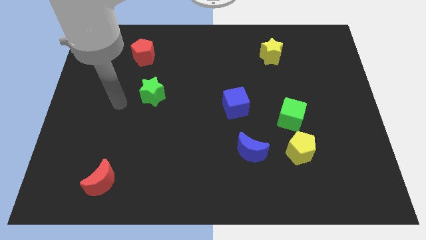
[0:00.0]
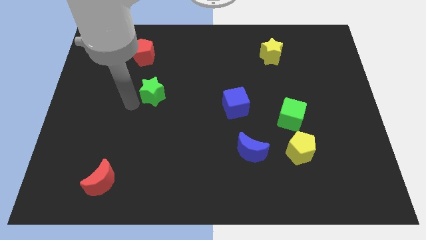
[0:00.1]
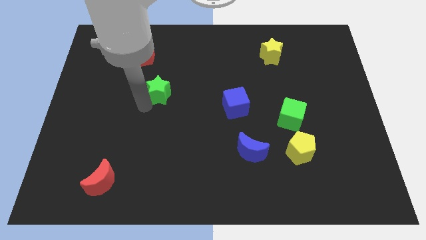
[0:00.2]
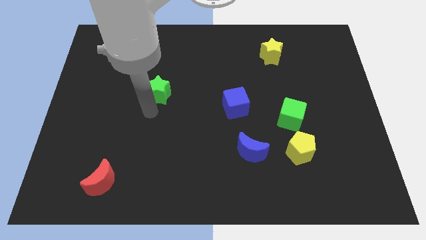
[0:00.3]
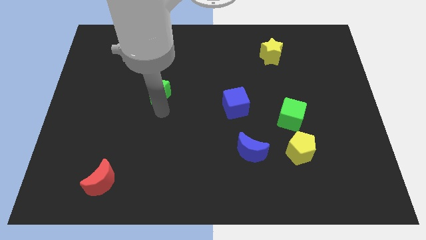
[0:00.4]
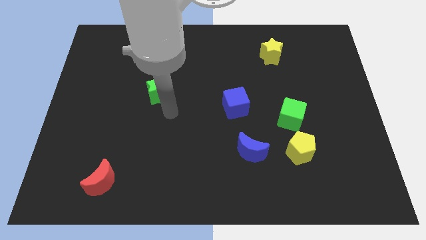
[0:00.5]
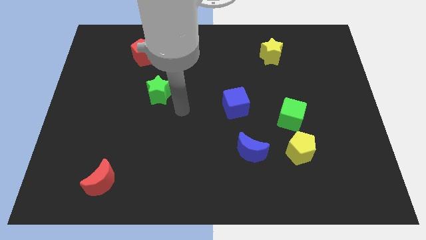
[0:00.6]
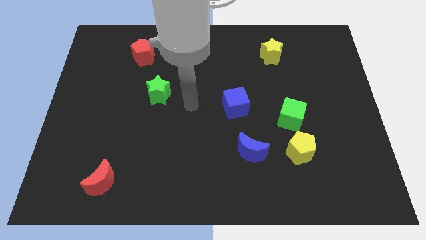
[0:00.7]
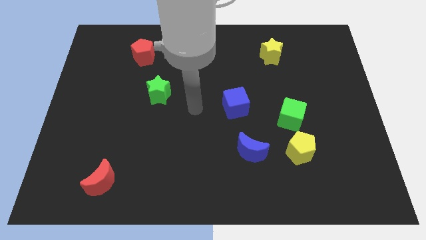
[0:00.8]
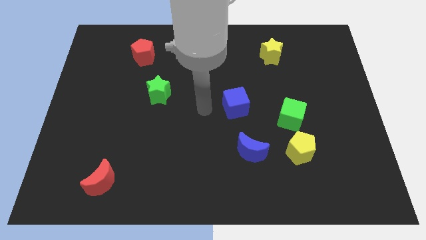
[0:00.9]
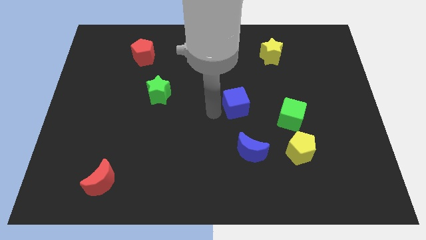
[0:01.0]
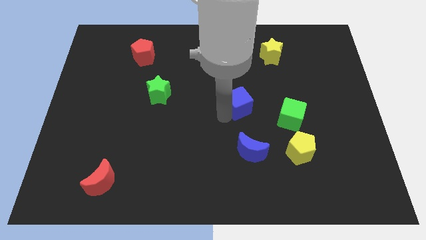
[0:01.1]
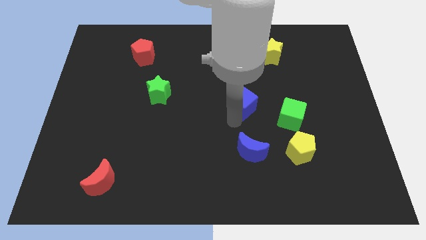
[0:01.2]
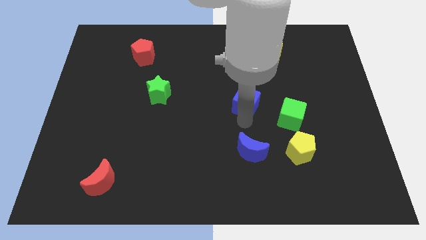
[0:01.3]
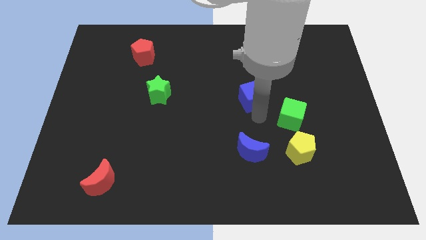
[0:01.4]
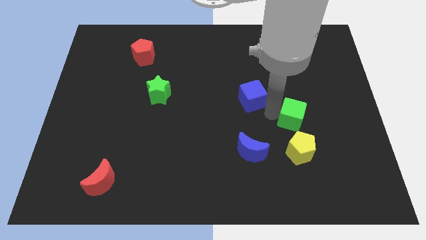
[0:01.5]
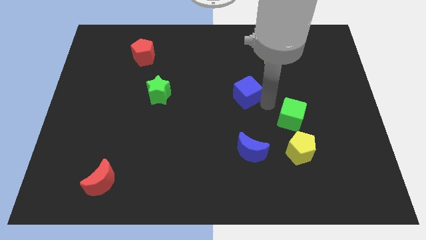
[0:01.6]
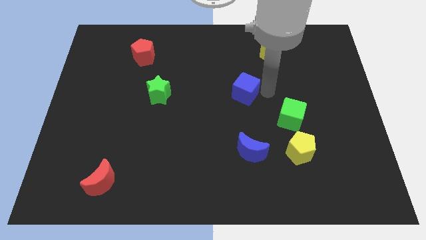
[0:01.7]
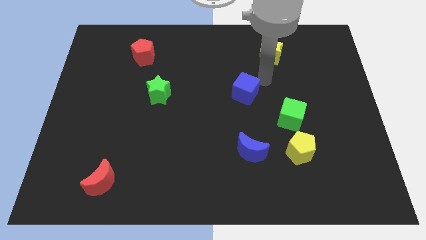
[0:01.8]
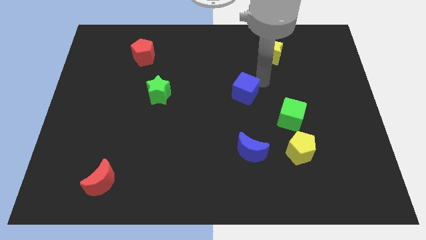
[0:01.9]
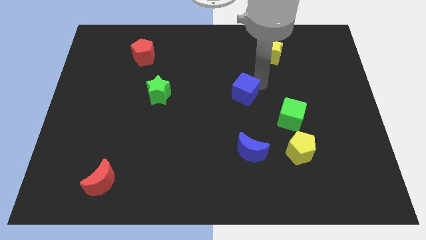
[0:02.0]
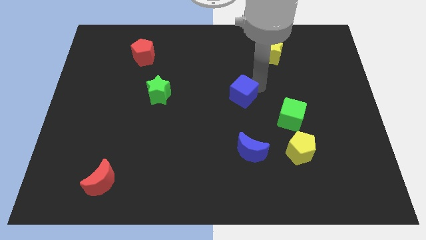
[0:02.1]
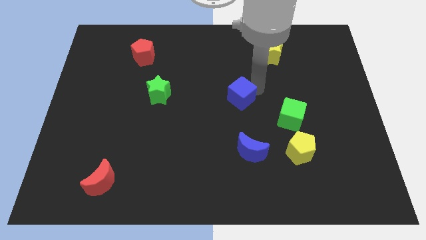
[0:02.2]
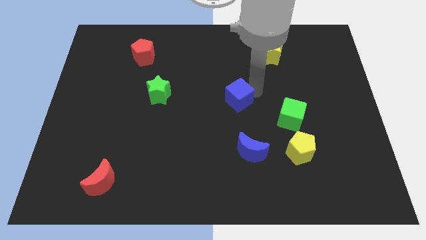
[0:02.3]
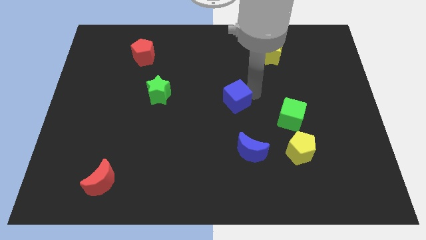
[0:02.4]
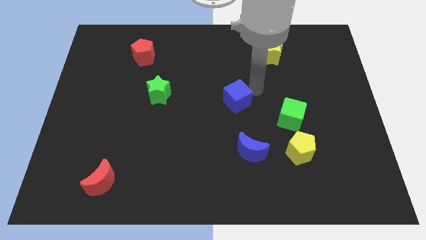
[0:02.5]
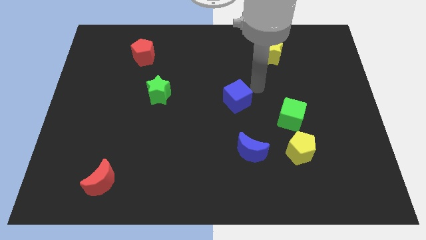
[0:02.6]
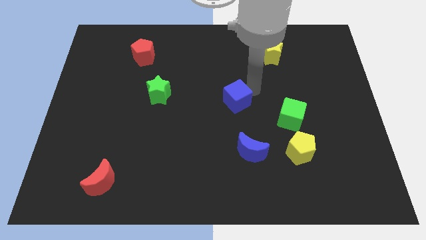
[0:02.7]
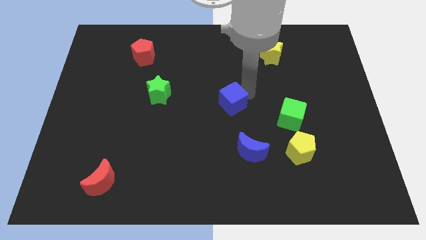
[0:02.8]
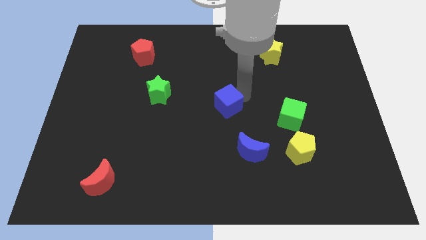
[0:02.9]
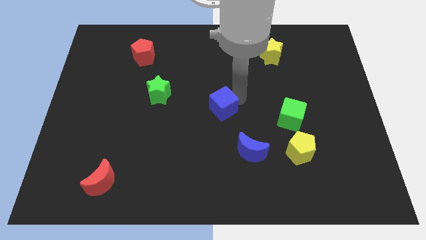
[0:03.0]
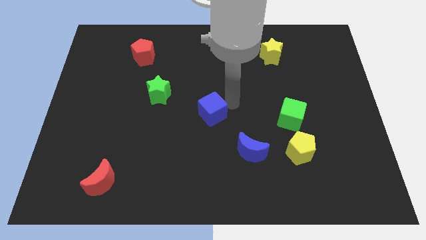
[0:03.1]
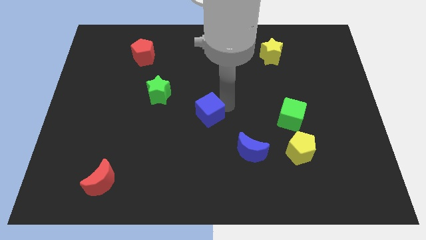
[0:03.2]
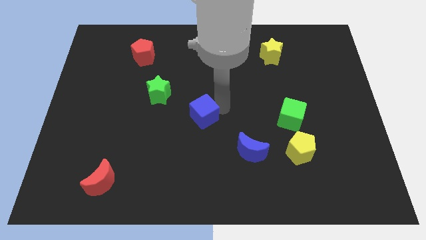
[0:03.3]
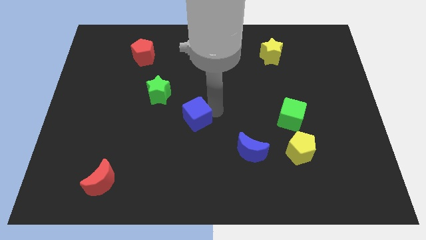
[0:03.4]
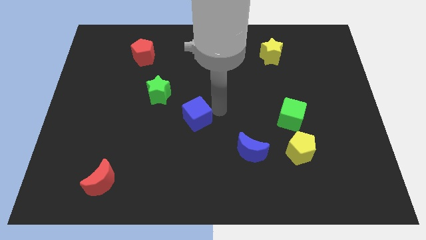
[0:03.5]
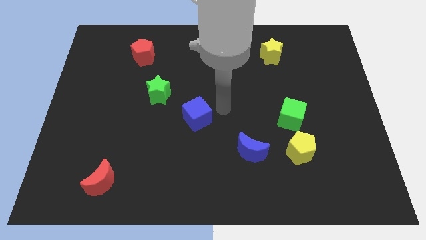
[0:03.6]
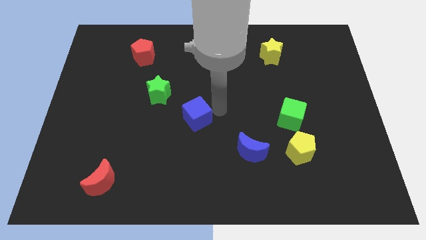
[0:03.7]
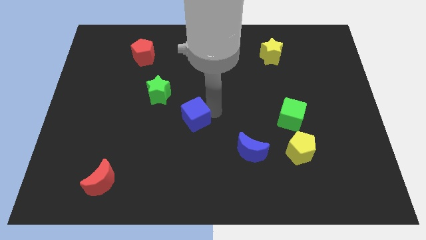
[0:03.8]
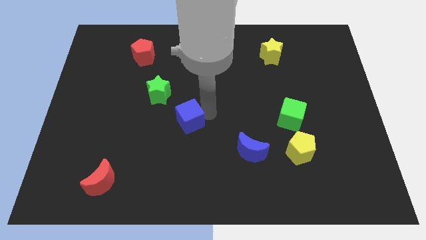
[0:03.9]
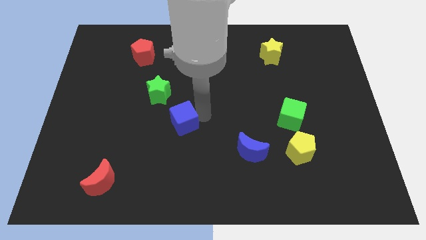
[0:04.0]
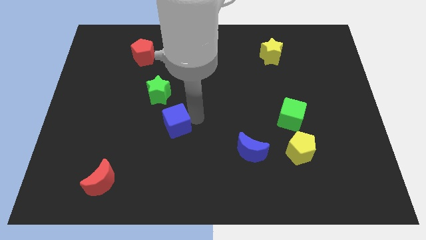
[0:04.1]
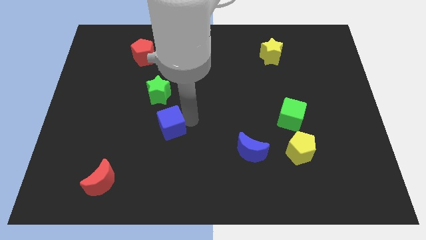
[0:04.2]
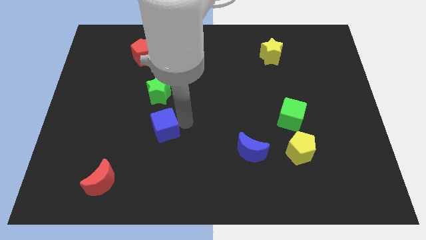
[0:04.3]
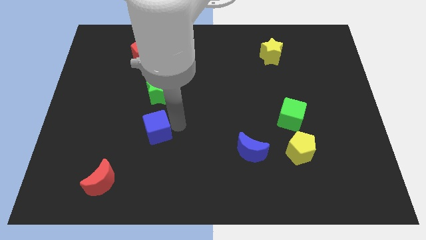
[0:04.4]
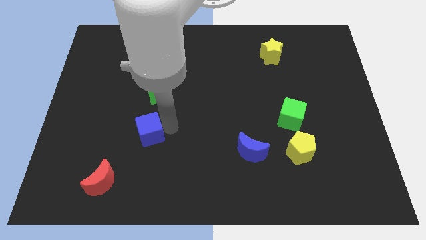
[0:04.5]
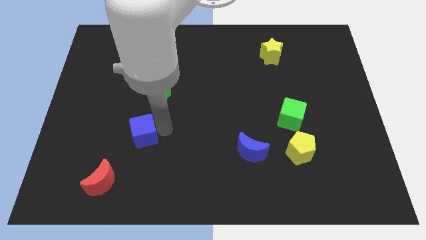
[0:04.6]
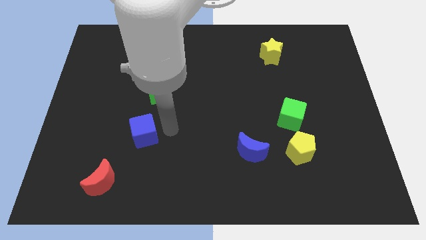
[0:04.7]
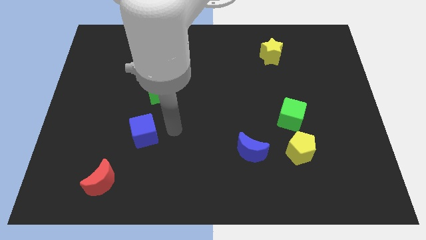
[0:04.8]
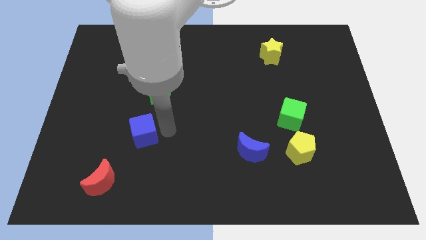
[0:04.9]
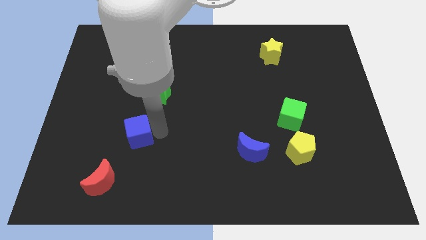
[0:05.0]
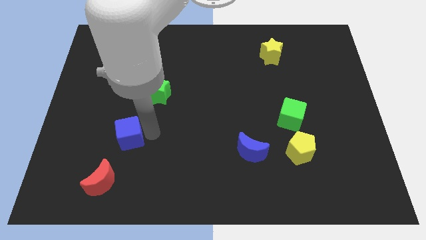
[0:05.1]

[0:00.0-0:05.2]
push the blue cube to the top side of the red moon

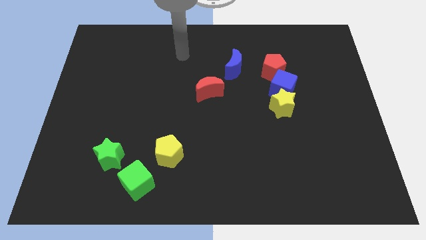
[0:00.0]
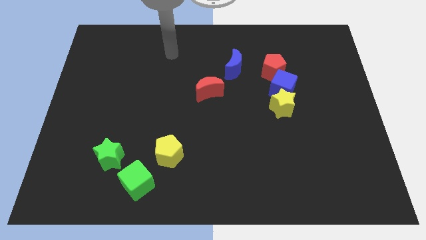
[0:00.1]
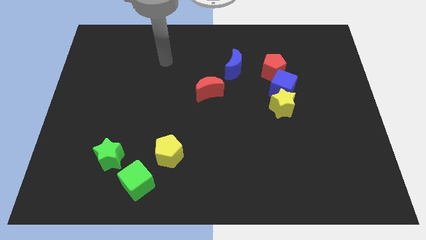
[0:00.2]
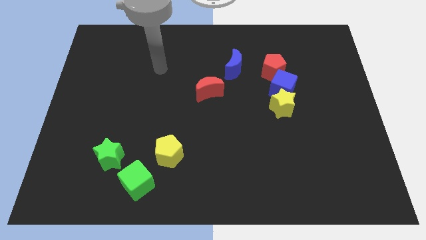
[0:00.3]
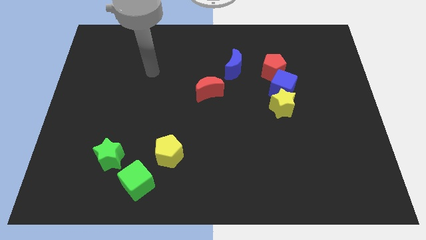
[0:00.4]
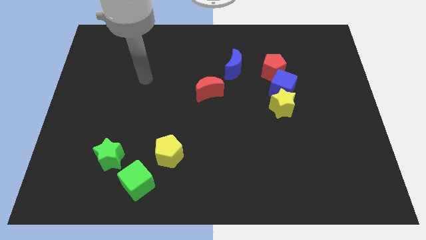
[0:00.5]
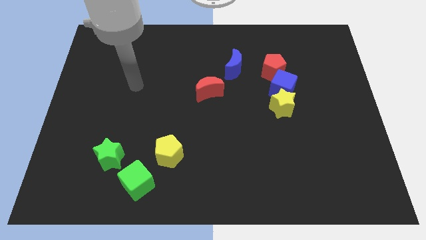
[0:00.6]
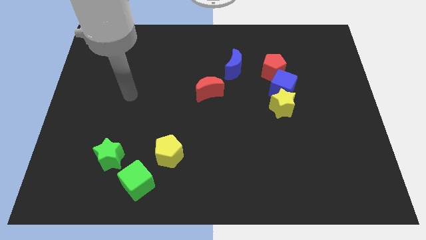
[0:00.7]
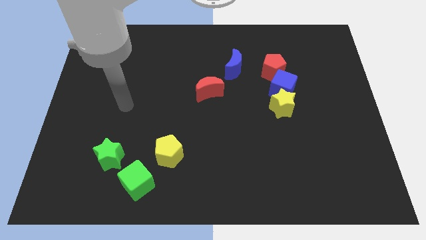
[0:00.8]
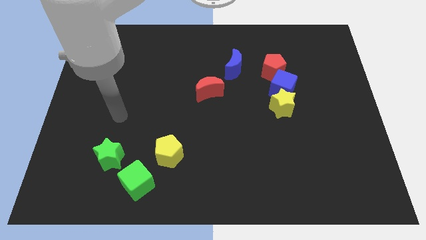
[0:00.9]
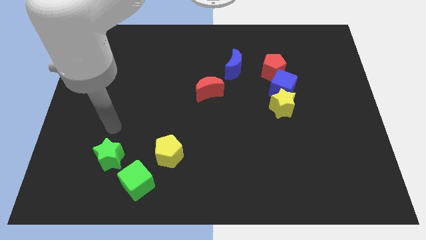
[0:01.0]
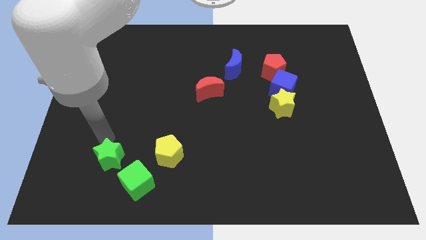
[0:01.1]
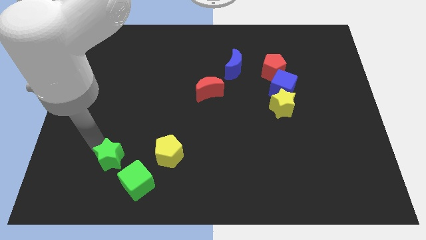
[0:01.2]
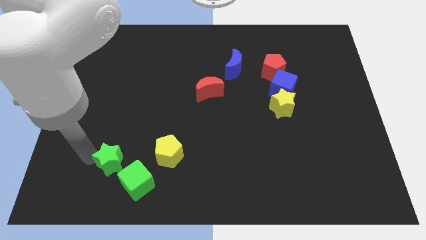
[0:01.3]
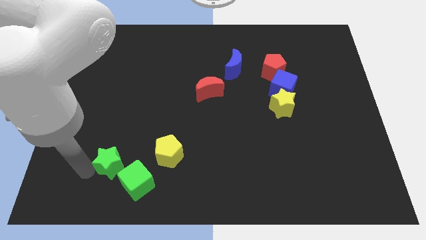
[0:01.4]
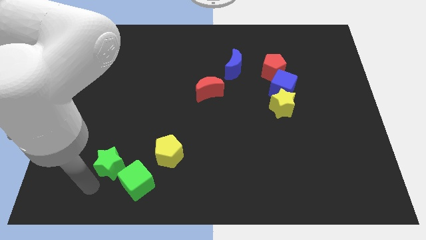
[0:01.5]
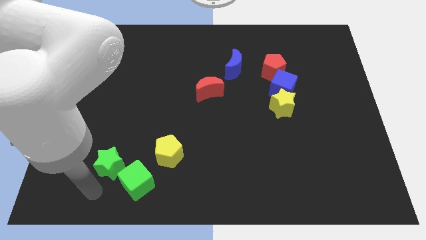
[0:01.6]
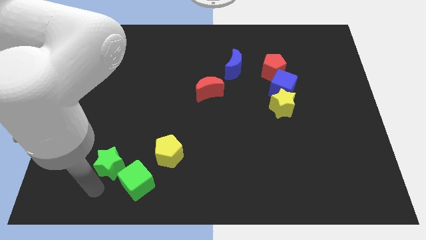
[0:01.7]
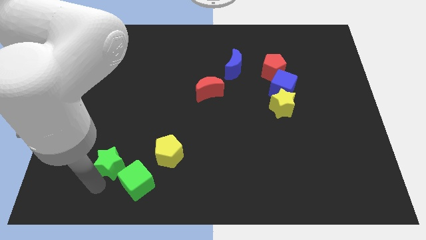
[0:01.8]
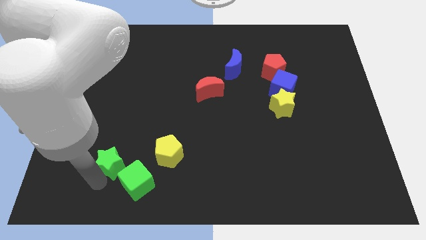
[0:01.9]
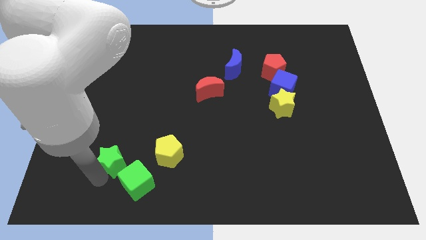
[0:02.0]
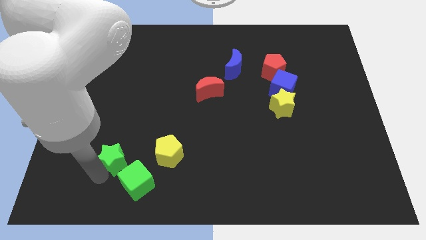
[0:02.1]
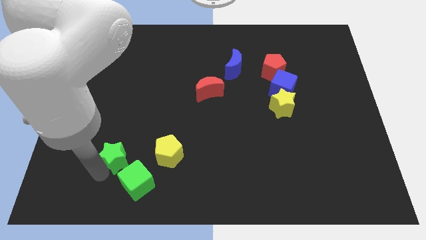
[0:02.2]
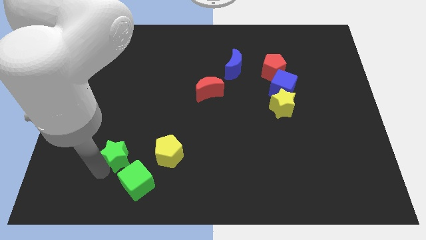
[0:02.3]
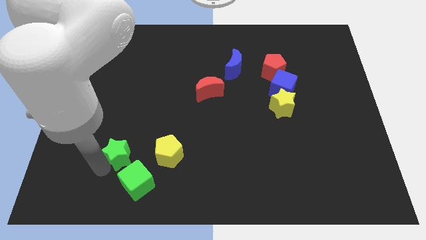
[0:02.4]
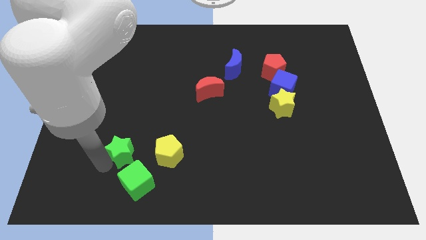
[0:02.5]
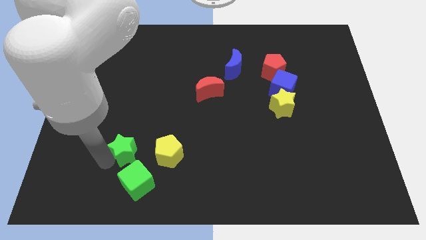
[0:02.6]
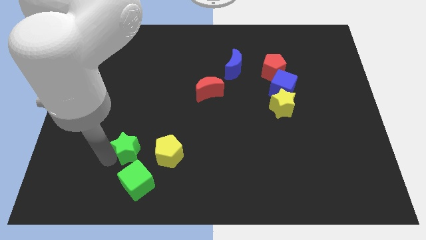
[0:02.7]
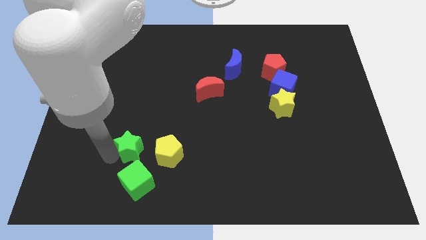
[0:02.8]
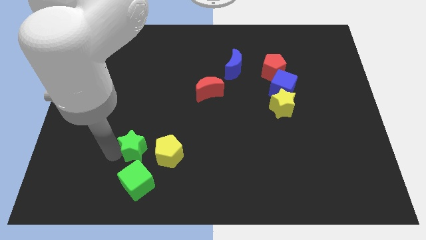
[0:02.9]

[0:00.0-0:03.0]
slide the green star to the top left of the yellow pentagon
